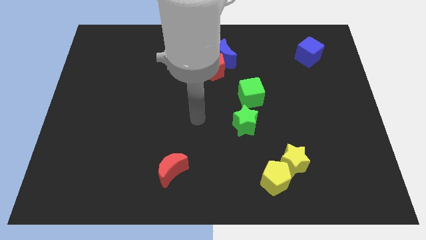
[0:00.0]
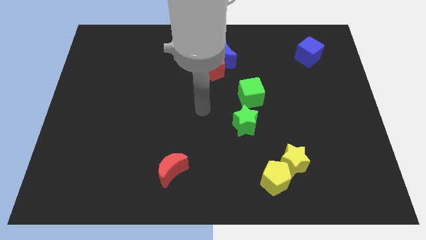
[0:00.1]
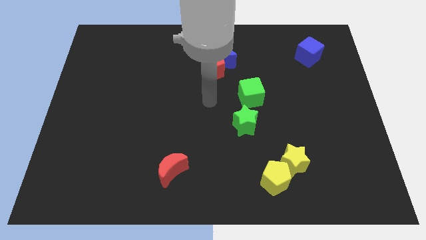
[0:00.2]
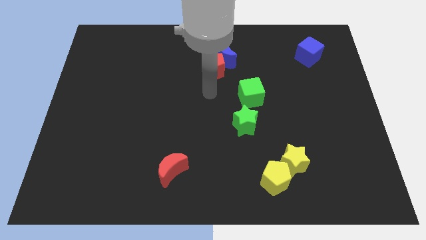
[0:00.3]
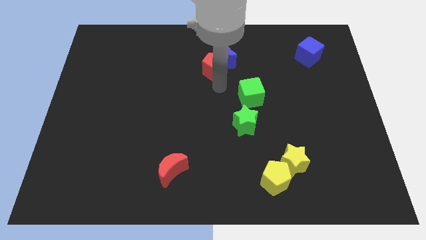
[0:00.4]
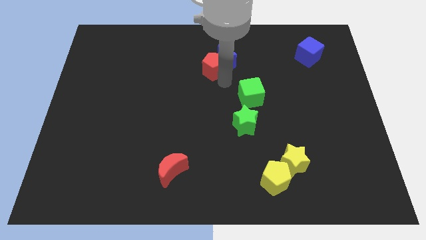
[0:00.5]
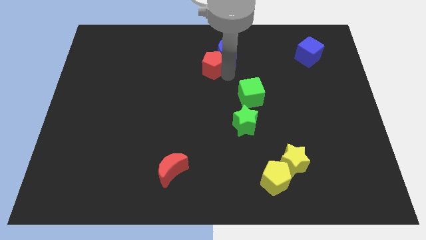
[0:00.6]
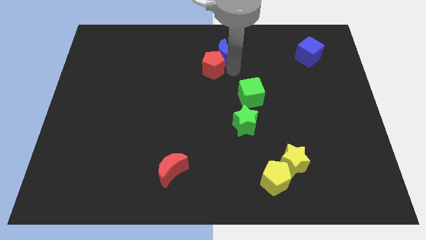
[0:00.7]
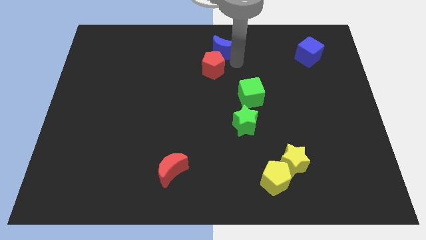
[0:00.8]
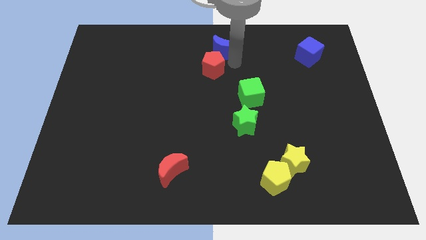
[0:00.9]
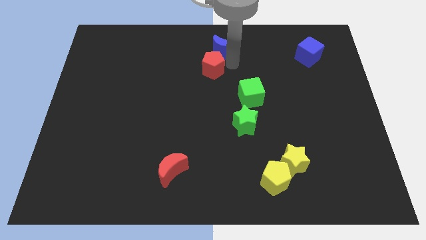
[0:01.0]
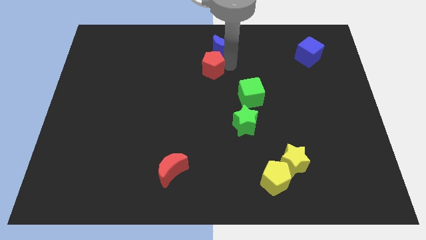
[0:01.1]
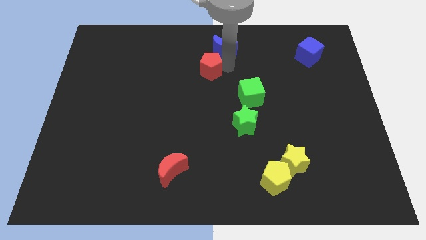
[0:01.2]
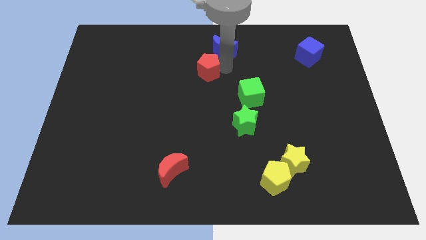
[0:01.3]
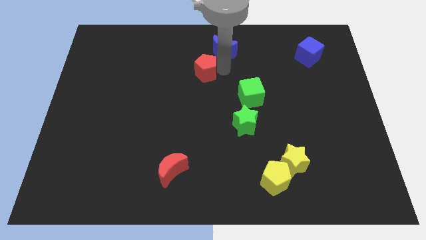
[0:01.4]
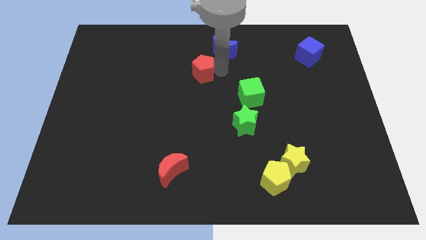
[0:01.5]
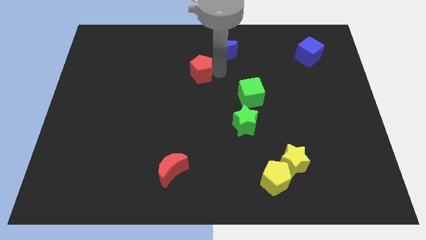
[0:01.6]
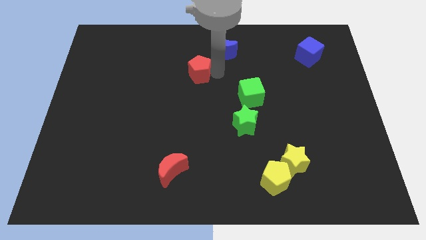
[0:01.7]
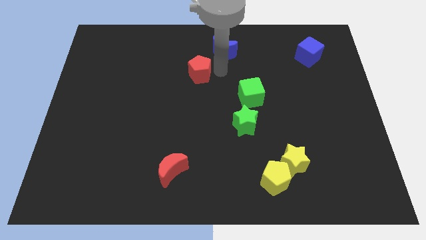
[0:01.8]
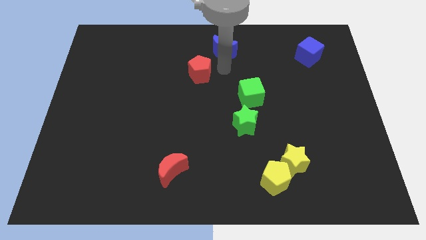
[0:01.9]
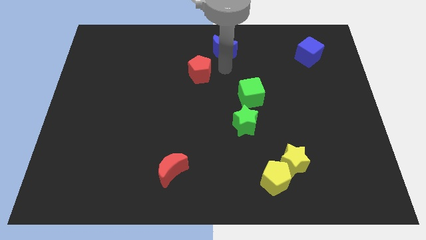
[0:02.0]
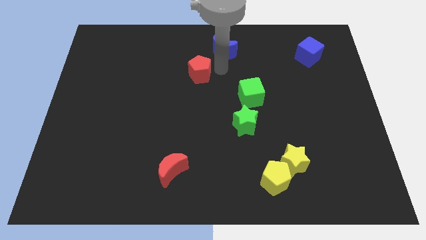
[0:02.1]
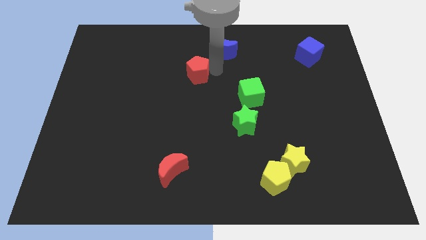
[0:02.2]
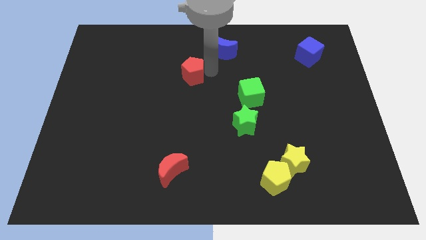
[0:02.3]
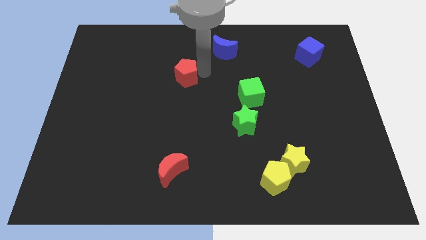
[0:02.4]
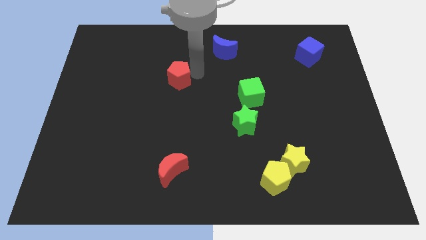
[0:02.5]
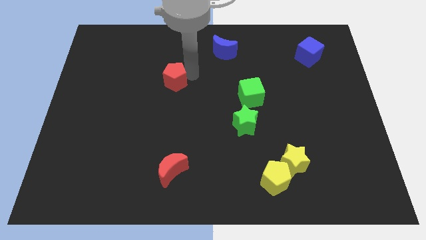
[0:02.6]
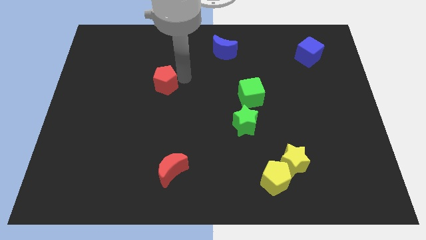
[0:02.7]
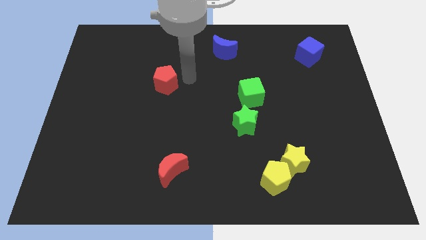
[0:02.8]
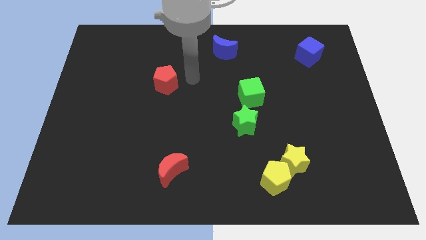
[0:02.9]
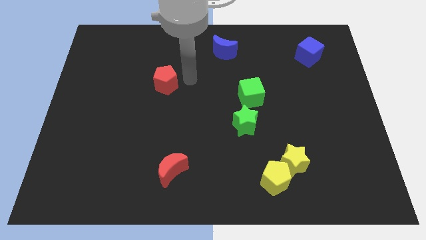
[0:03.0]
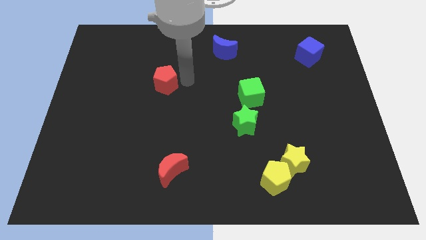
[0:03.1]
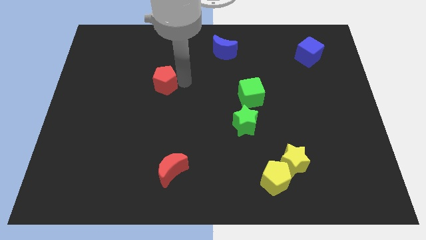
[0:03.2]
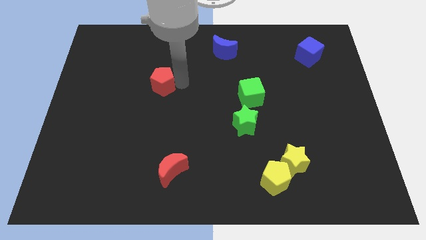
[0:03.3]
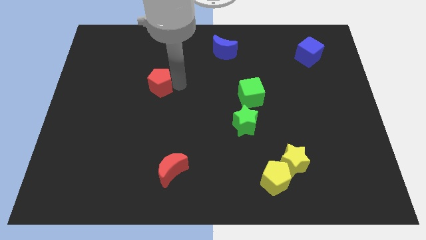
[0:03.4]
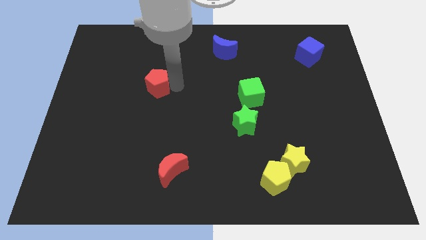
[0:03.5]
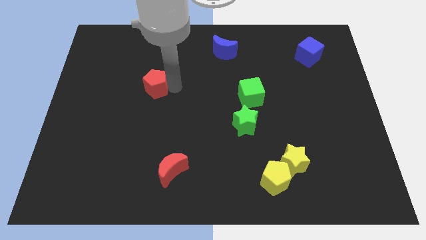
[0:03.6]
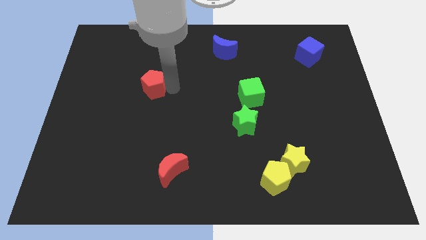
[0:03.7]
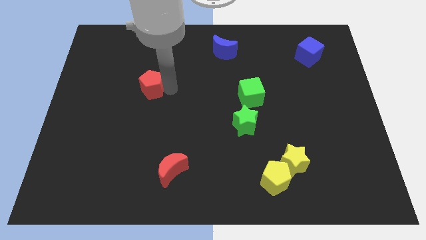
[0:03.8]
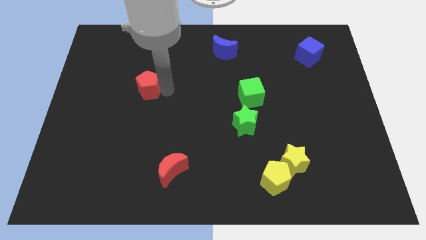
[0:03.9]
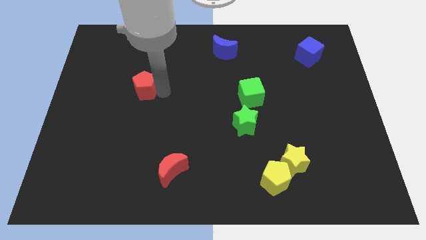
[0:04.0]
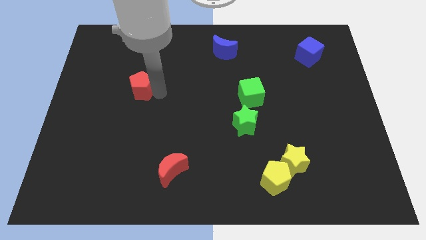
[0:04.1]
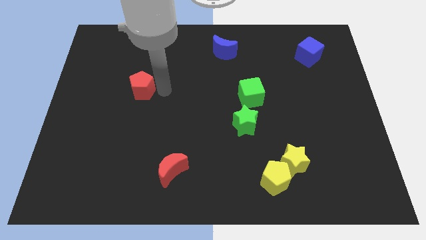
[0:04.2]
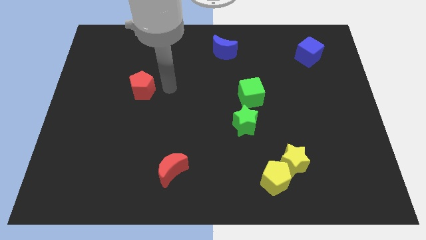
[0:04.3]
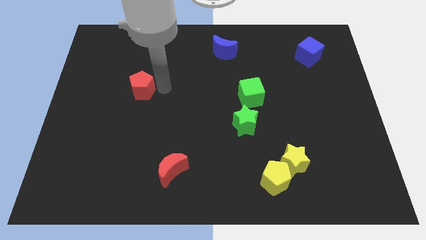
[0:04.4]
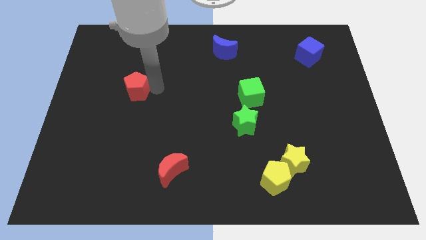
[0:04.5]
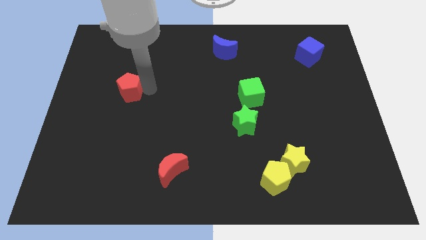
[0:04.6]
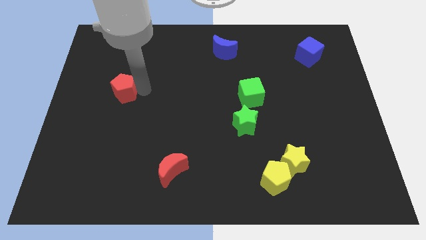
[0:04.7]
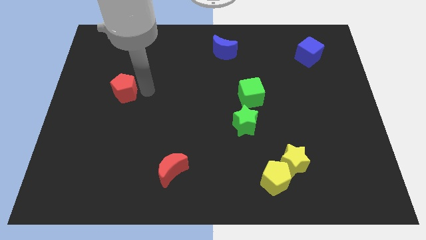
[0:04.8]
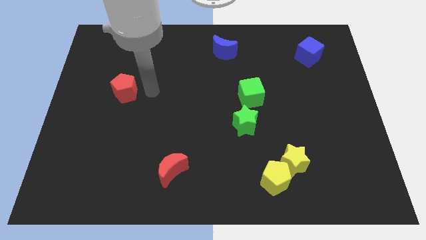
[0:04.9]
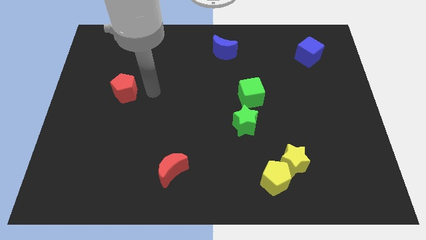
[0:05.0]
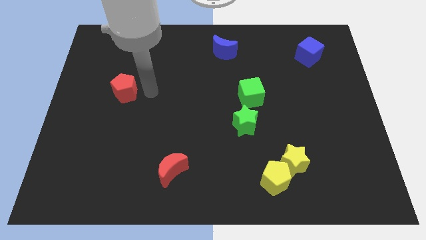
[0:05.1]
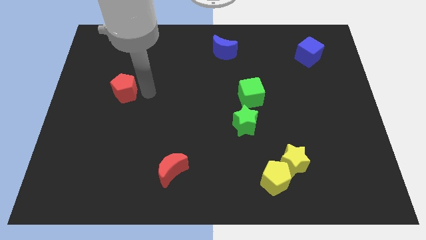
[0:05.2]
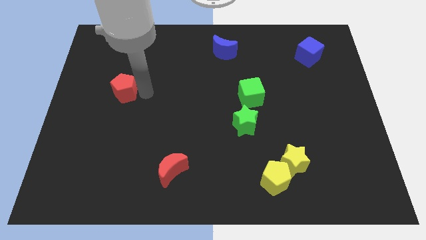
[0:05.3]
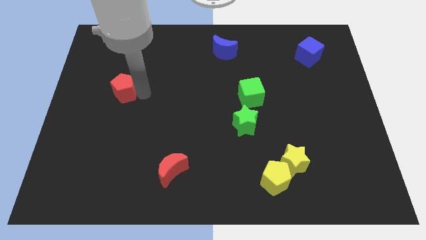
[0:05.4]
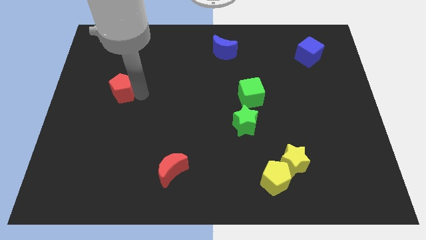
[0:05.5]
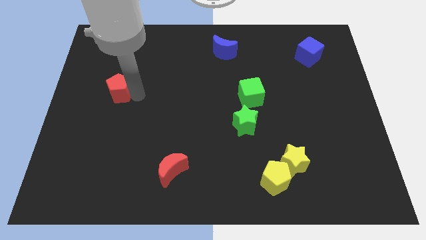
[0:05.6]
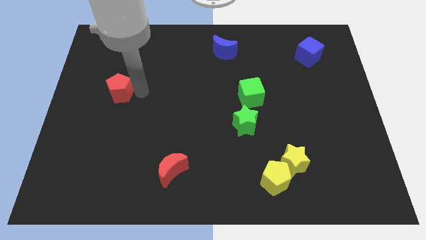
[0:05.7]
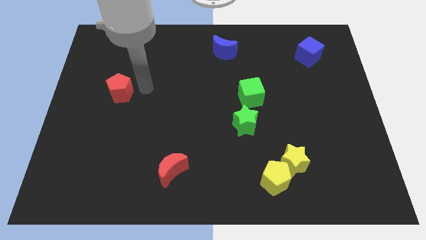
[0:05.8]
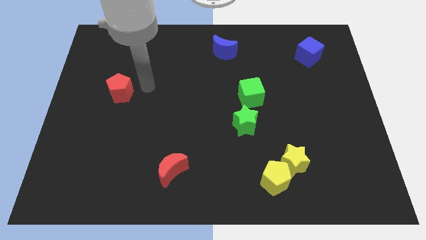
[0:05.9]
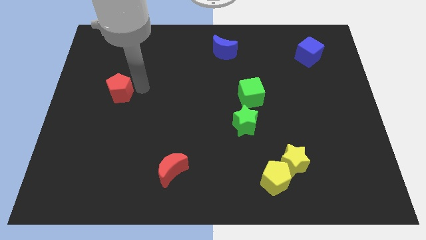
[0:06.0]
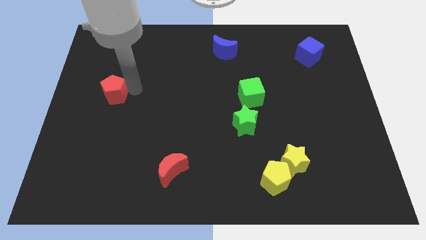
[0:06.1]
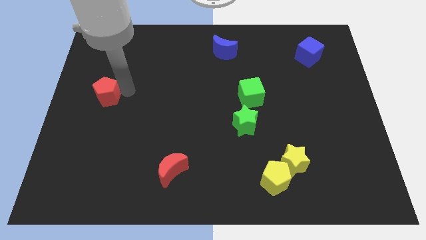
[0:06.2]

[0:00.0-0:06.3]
push the red pentagon to the center left

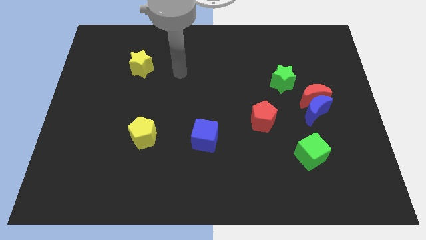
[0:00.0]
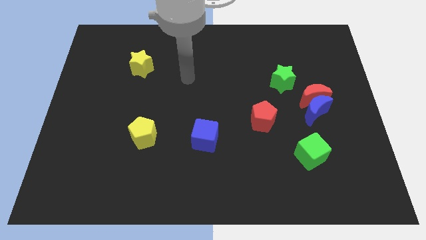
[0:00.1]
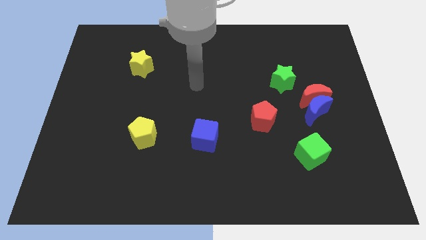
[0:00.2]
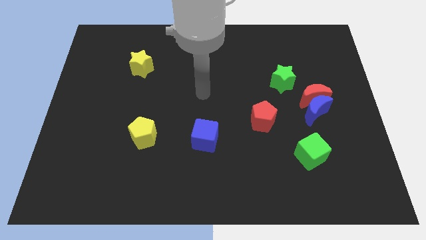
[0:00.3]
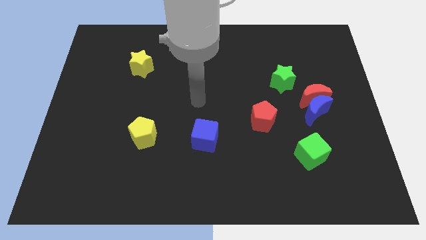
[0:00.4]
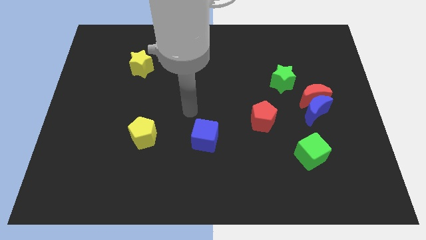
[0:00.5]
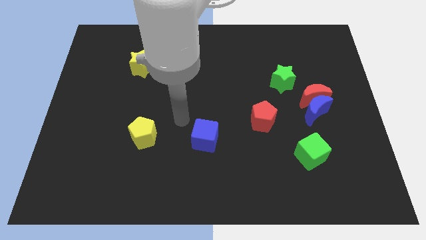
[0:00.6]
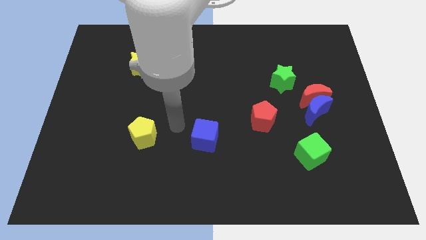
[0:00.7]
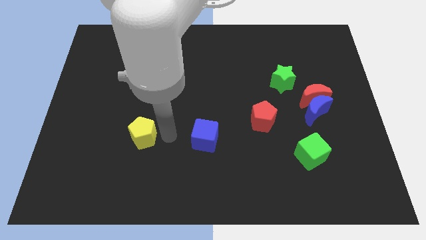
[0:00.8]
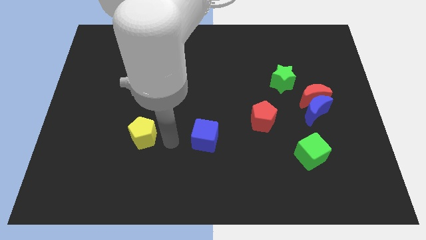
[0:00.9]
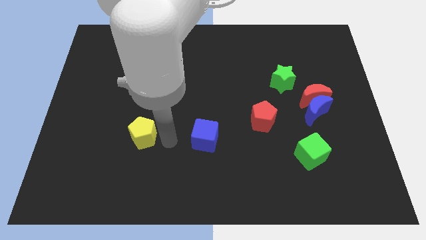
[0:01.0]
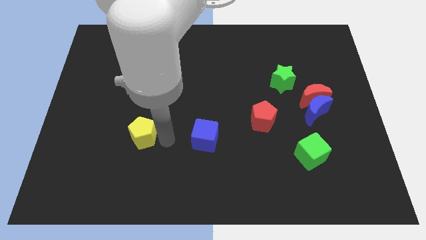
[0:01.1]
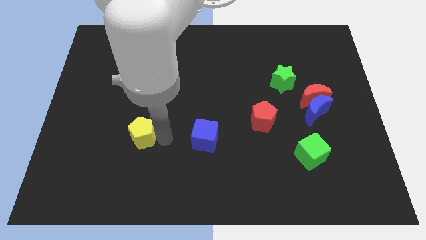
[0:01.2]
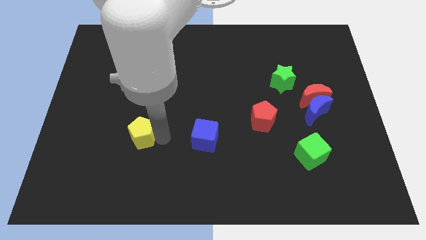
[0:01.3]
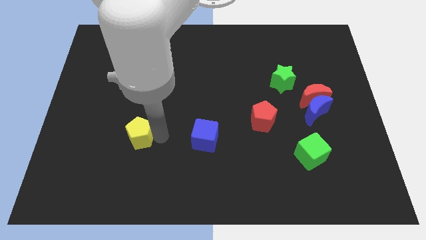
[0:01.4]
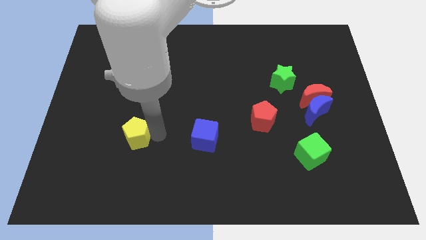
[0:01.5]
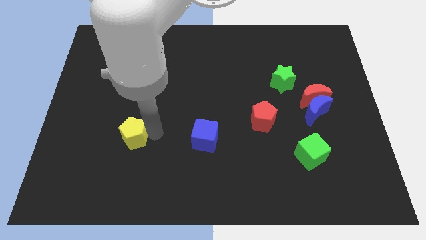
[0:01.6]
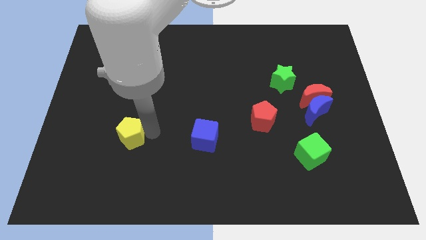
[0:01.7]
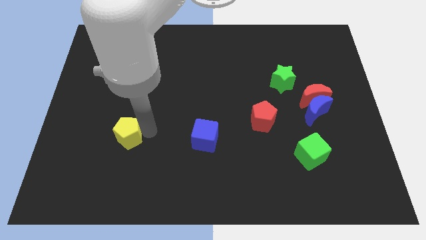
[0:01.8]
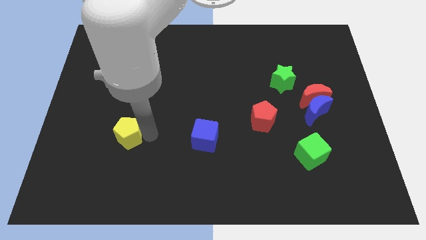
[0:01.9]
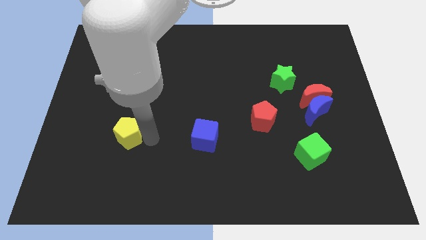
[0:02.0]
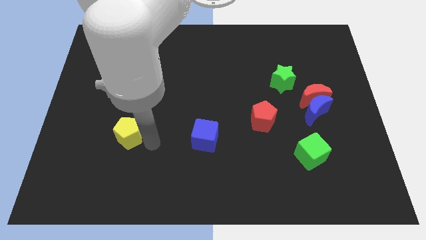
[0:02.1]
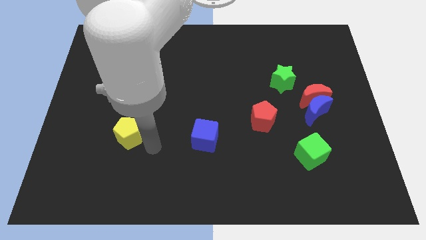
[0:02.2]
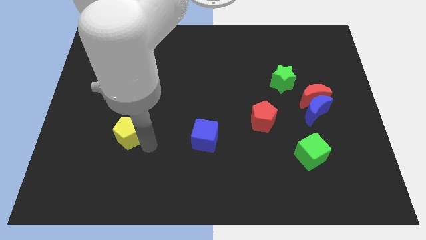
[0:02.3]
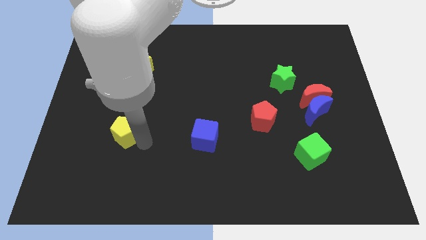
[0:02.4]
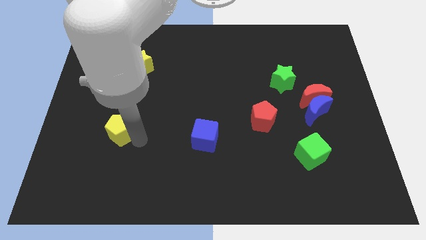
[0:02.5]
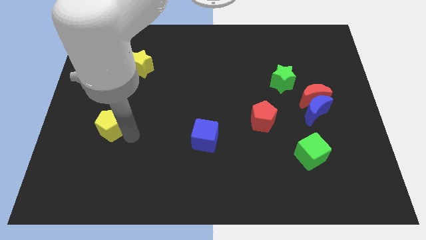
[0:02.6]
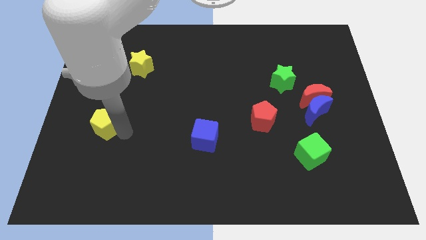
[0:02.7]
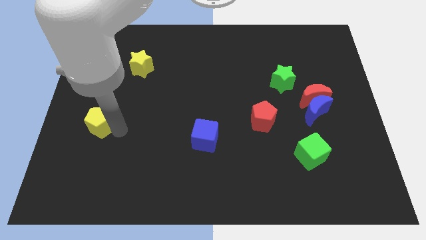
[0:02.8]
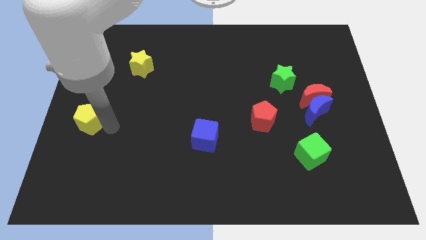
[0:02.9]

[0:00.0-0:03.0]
move the yellow pentagon to the left side
